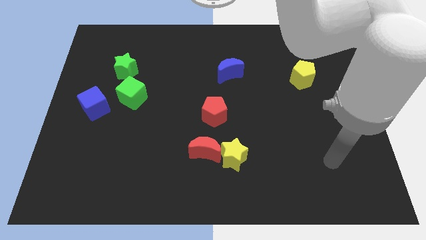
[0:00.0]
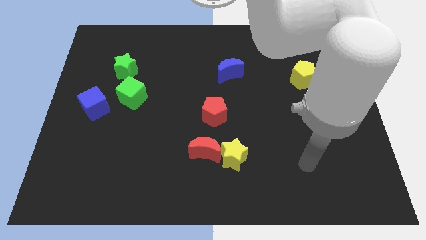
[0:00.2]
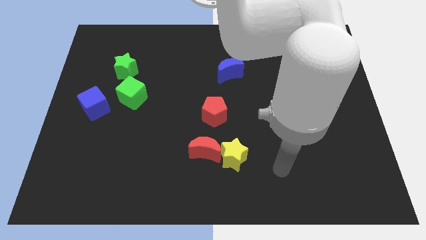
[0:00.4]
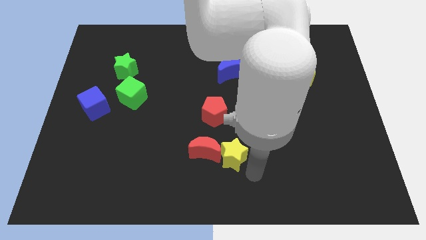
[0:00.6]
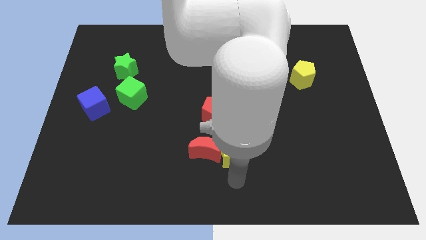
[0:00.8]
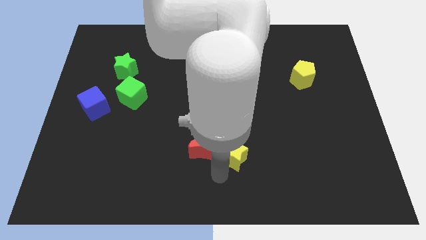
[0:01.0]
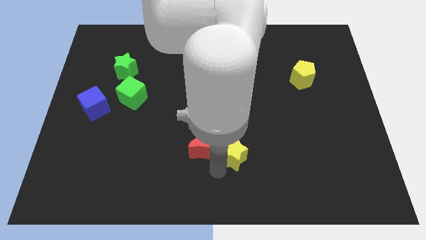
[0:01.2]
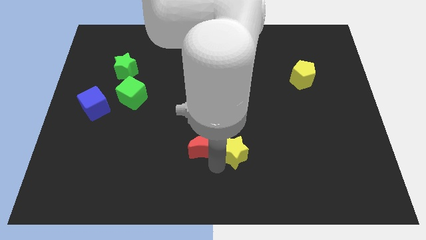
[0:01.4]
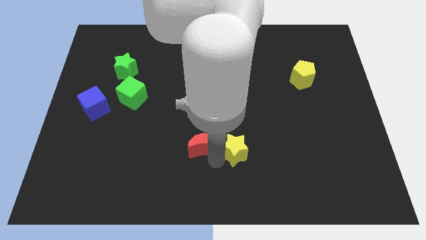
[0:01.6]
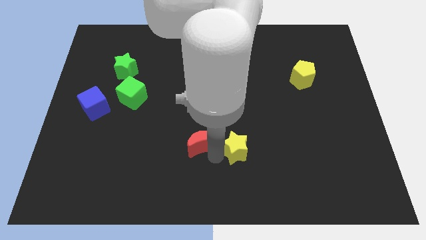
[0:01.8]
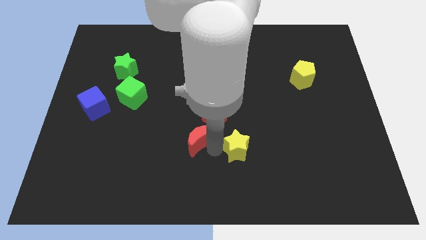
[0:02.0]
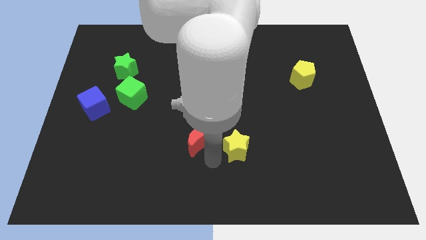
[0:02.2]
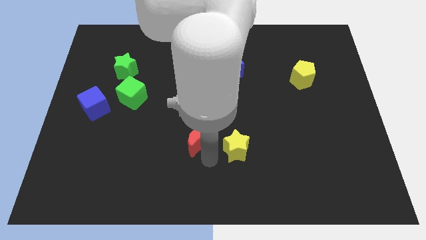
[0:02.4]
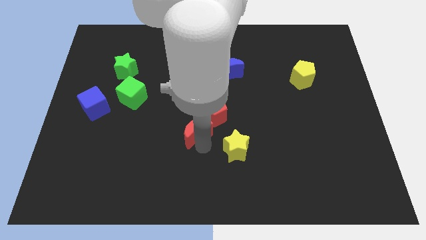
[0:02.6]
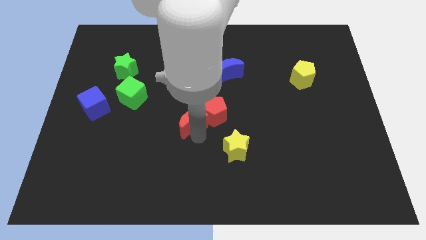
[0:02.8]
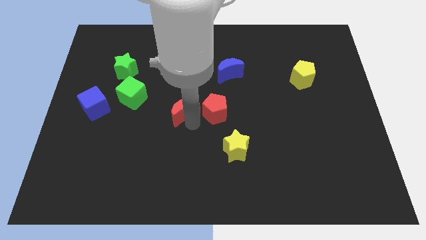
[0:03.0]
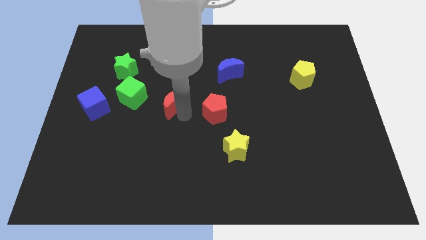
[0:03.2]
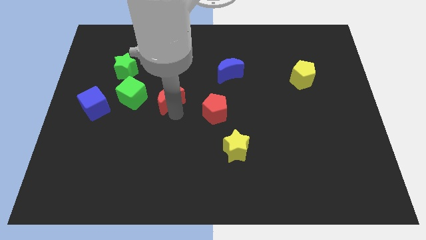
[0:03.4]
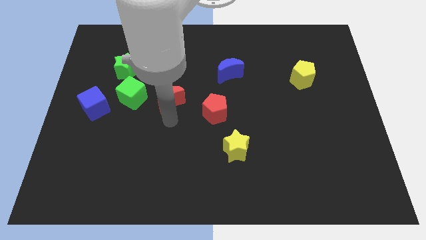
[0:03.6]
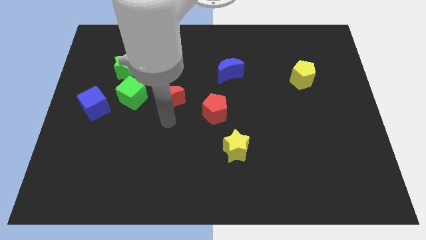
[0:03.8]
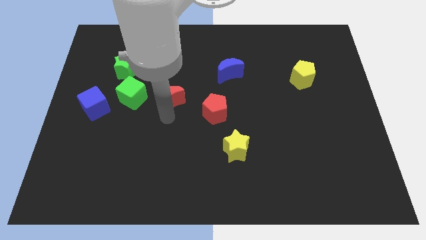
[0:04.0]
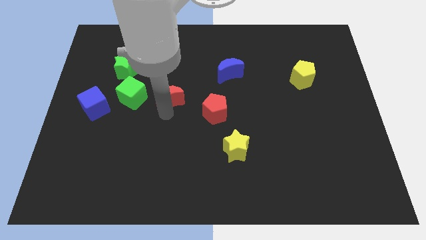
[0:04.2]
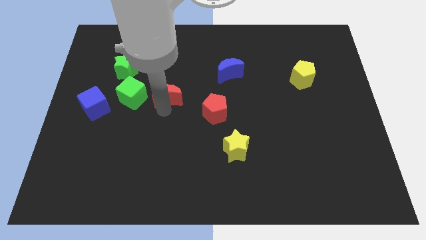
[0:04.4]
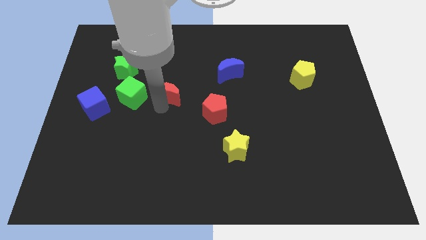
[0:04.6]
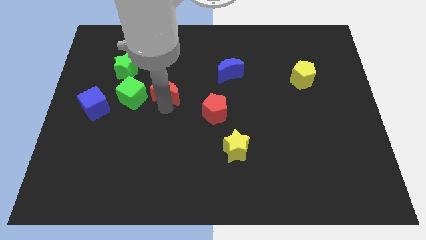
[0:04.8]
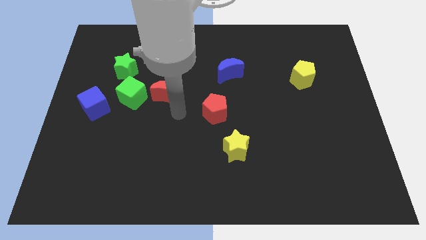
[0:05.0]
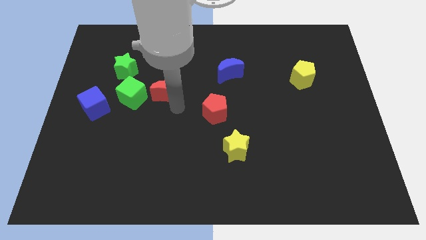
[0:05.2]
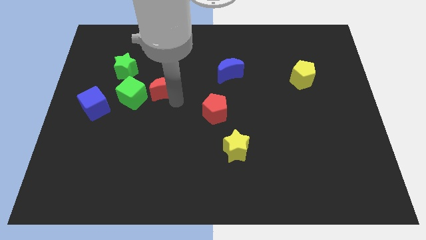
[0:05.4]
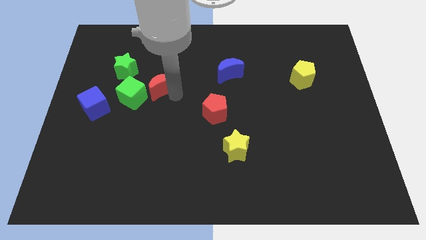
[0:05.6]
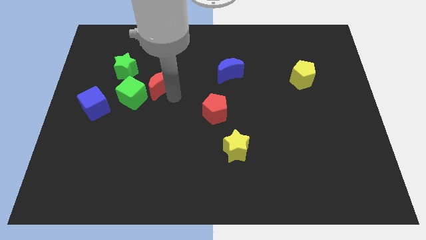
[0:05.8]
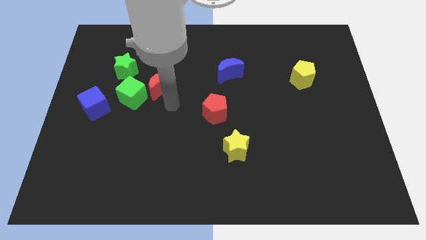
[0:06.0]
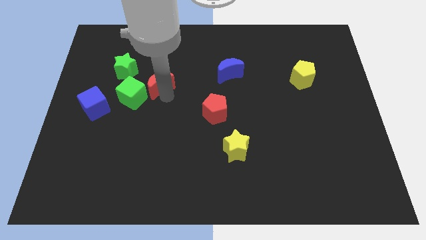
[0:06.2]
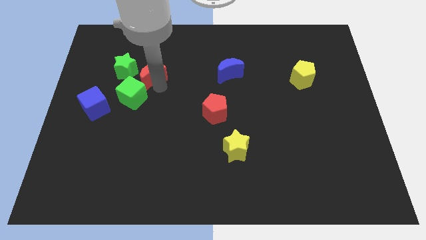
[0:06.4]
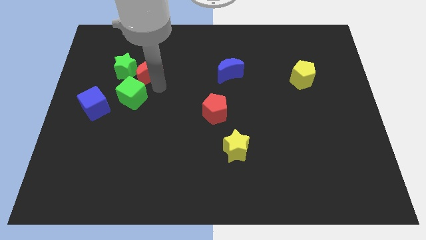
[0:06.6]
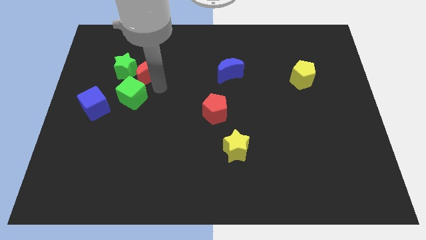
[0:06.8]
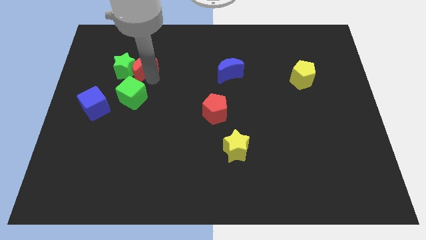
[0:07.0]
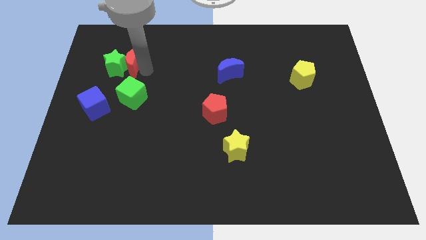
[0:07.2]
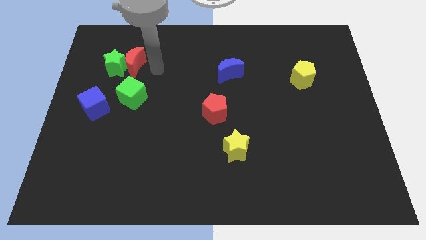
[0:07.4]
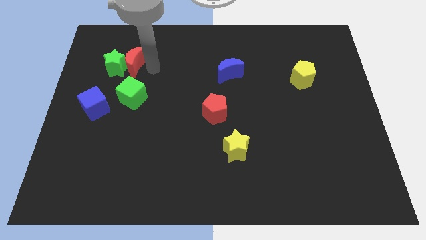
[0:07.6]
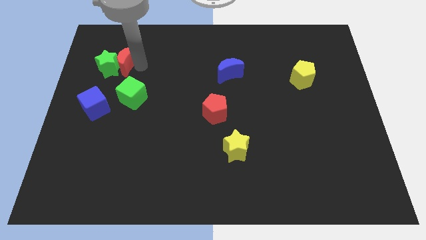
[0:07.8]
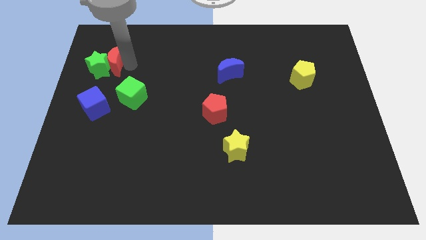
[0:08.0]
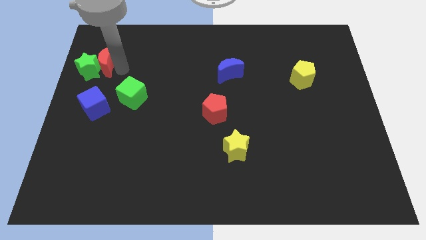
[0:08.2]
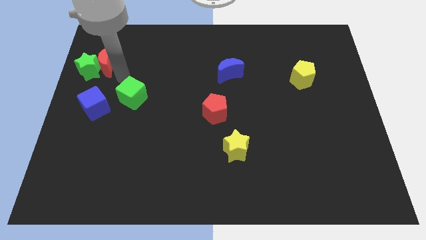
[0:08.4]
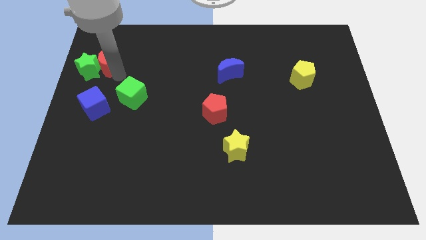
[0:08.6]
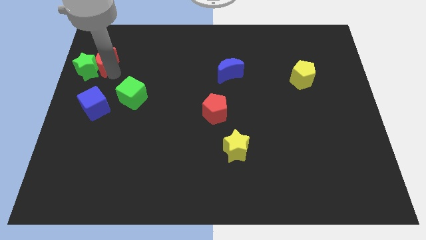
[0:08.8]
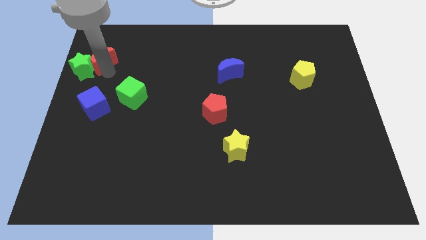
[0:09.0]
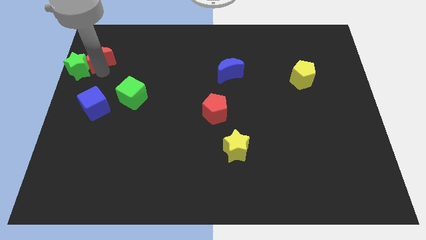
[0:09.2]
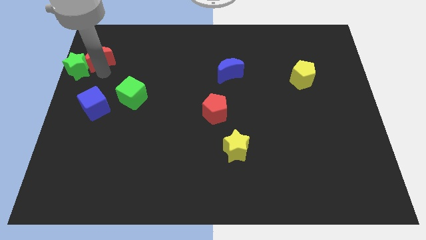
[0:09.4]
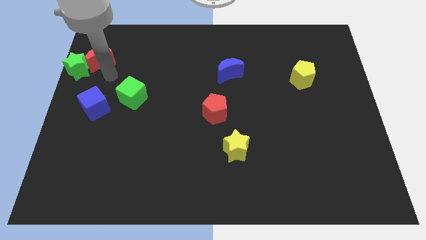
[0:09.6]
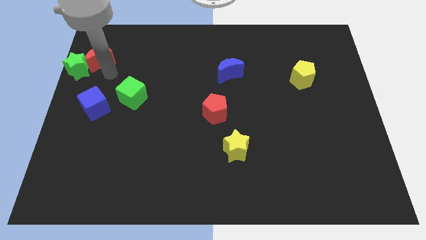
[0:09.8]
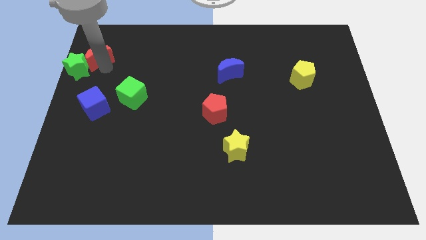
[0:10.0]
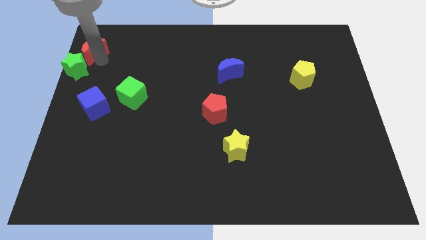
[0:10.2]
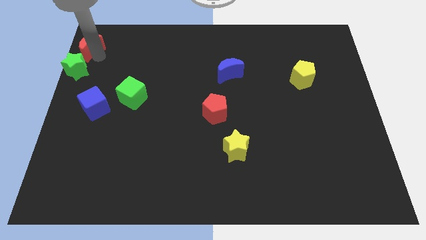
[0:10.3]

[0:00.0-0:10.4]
push the red moon to the top left of the board

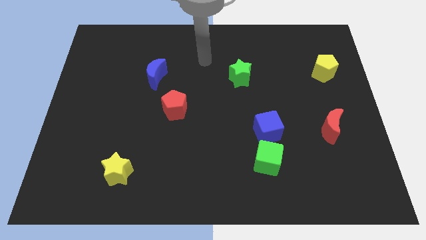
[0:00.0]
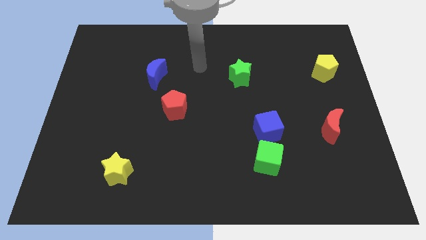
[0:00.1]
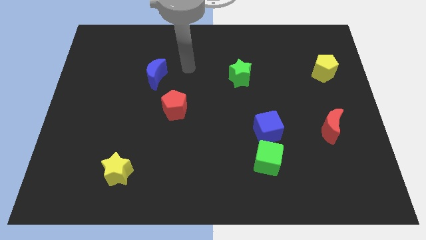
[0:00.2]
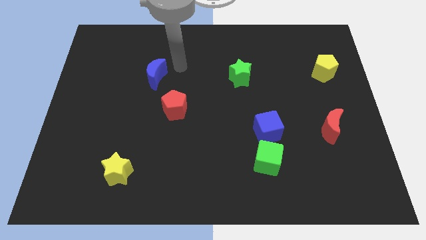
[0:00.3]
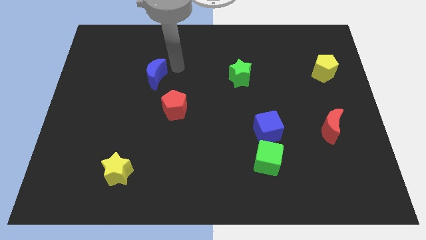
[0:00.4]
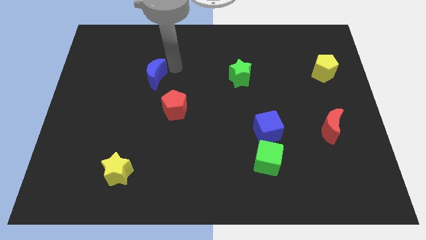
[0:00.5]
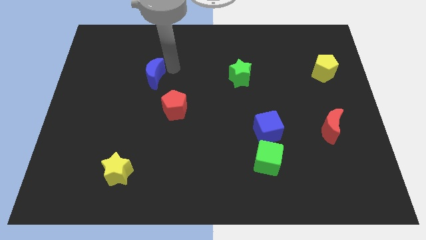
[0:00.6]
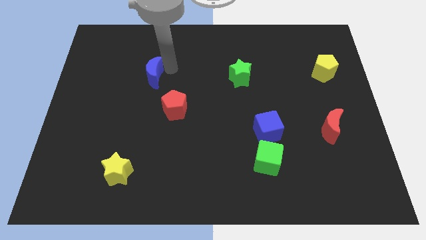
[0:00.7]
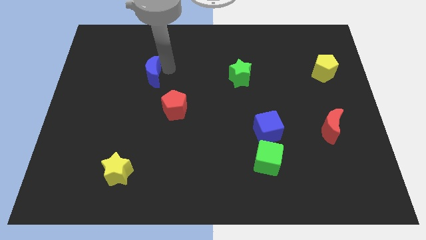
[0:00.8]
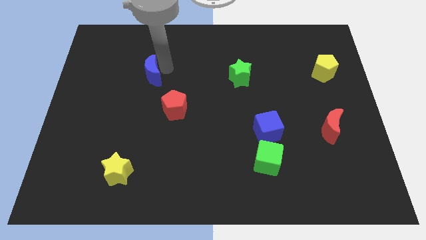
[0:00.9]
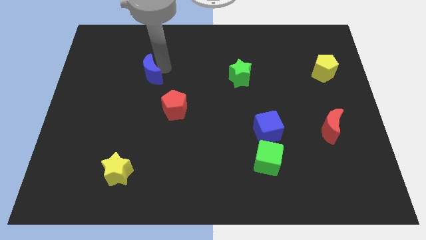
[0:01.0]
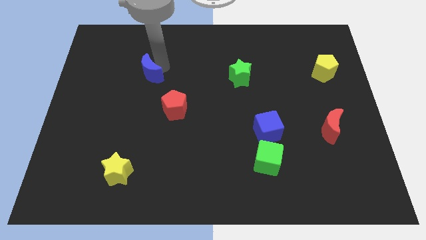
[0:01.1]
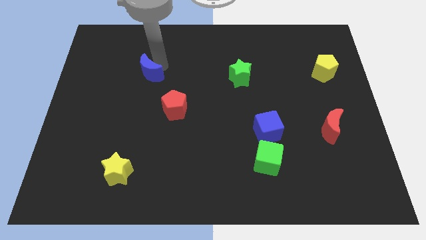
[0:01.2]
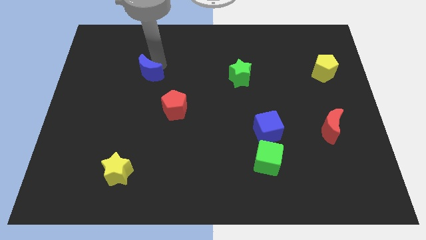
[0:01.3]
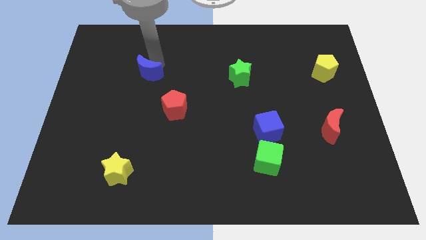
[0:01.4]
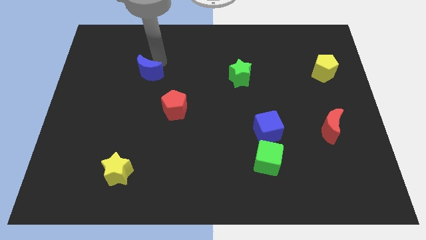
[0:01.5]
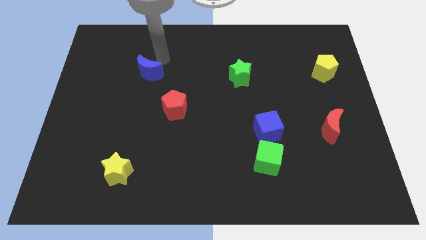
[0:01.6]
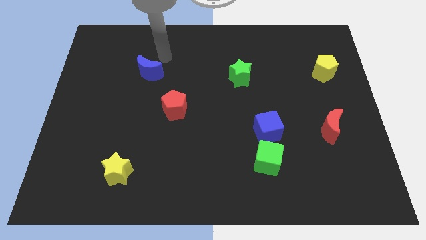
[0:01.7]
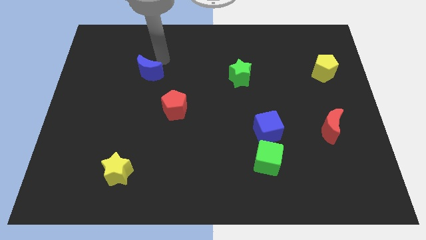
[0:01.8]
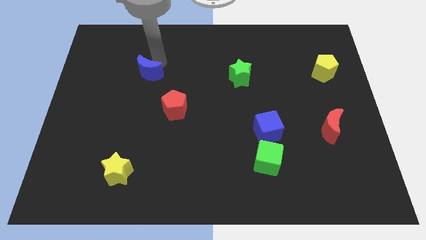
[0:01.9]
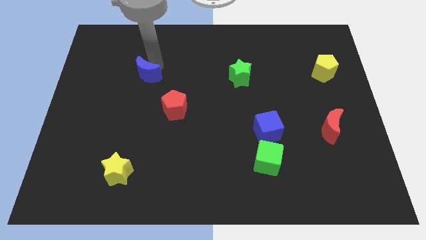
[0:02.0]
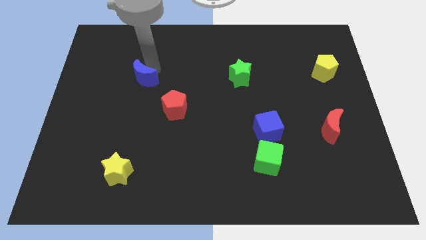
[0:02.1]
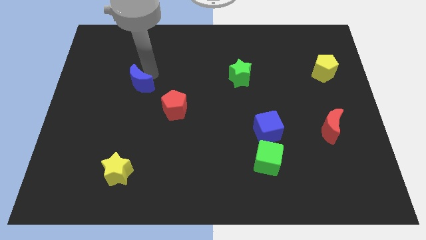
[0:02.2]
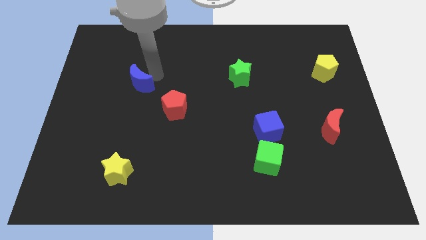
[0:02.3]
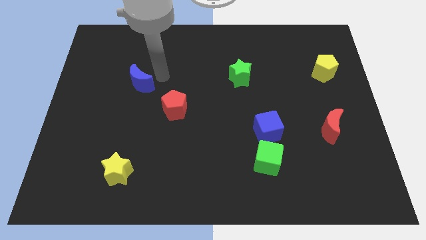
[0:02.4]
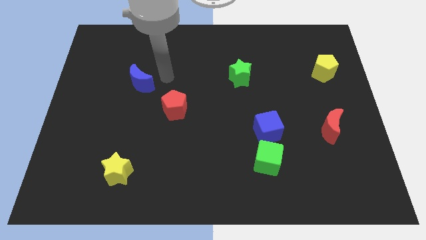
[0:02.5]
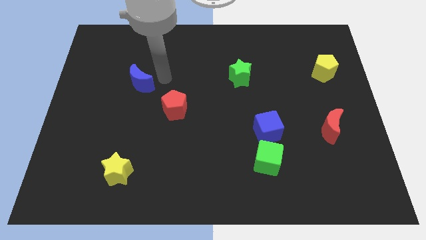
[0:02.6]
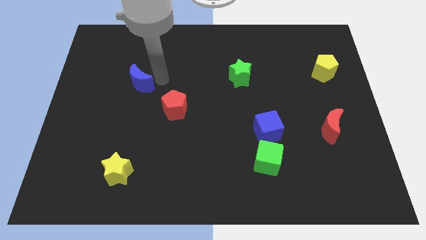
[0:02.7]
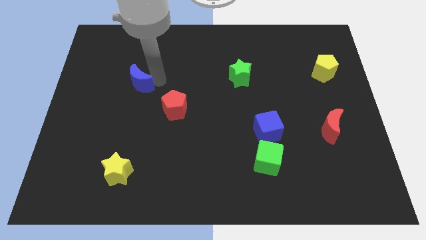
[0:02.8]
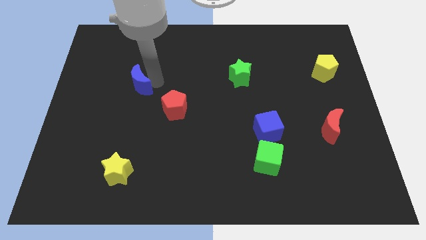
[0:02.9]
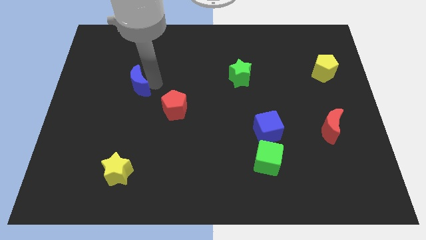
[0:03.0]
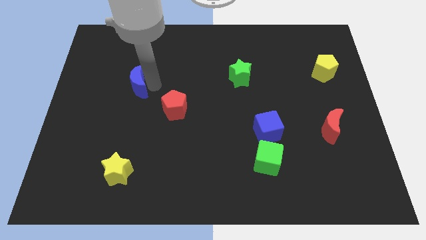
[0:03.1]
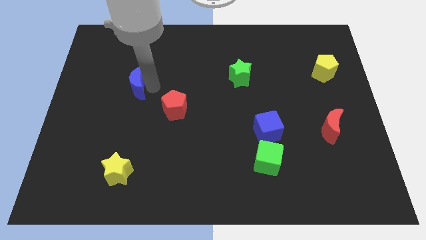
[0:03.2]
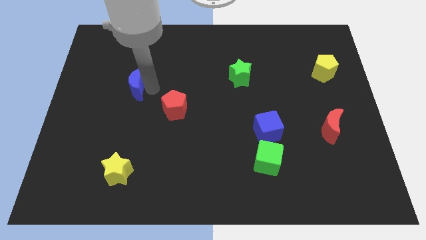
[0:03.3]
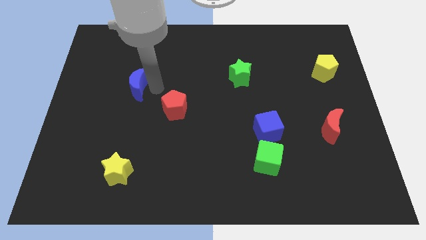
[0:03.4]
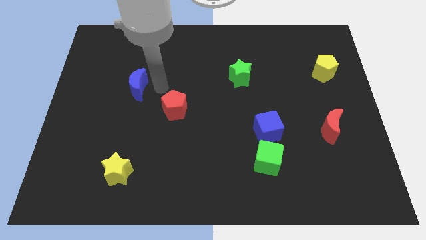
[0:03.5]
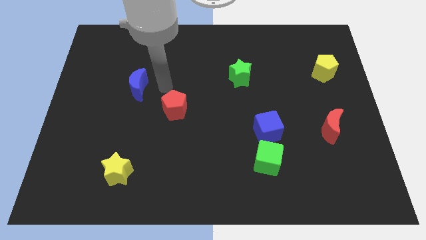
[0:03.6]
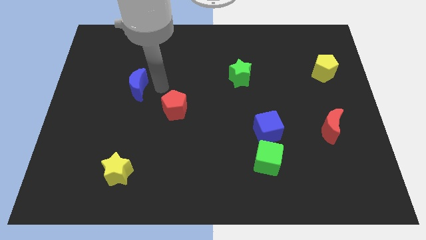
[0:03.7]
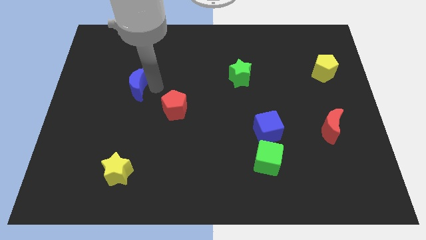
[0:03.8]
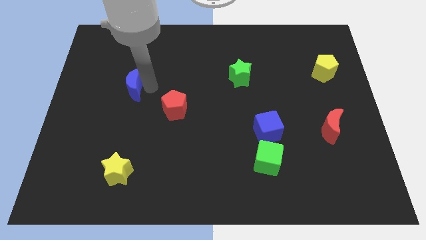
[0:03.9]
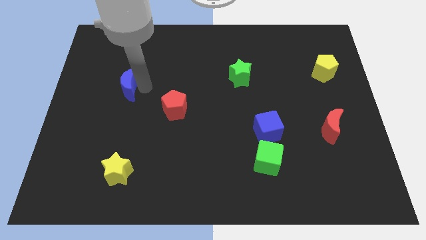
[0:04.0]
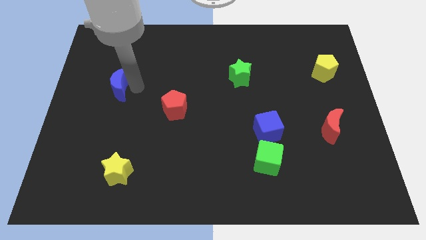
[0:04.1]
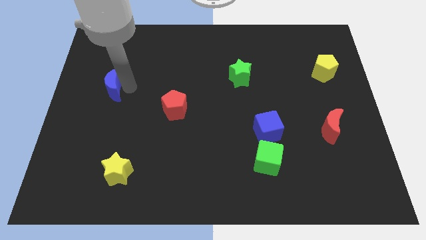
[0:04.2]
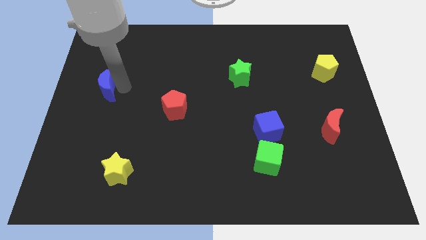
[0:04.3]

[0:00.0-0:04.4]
push the blue moon to the left side
